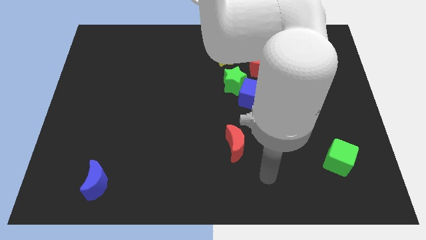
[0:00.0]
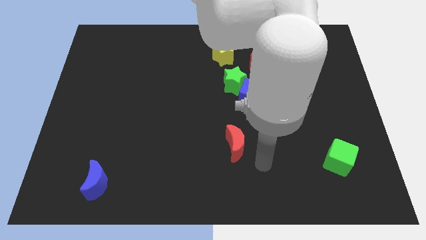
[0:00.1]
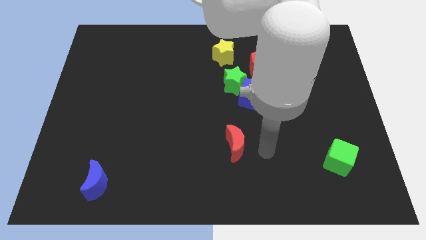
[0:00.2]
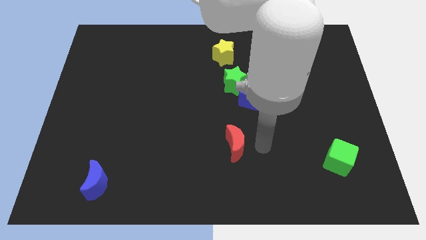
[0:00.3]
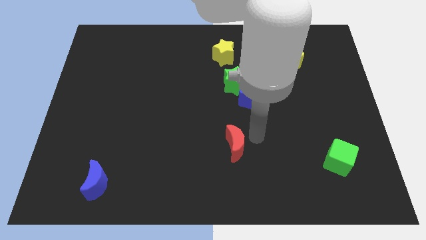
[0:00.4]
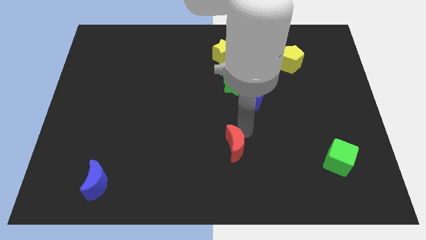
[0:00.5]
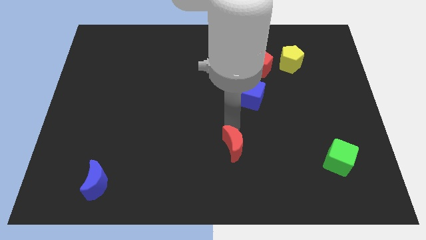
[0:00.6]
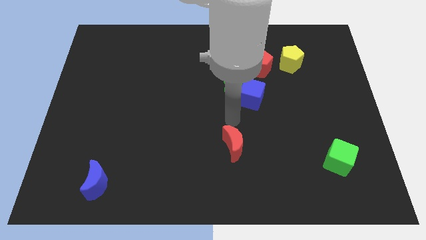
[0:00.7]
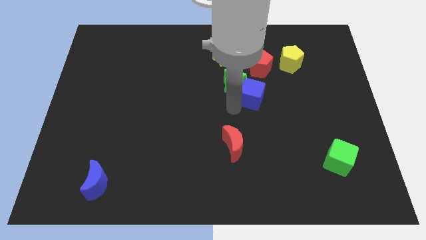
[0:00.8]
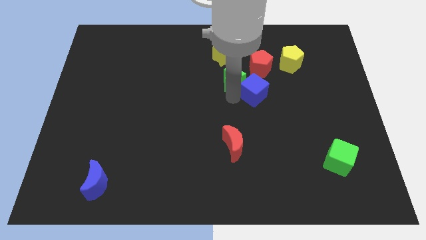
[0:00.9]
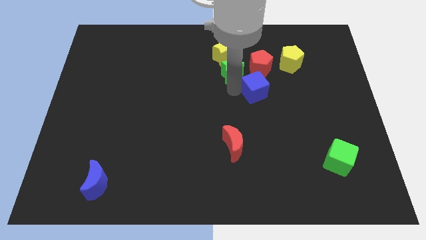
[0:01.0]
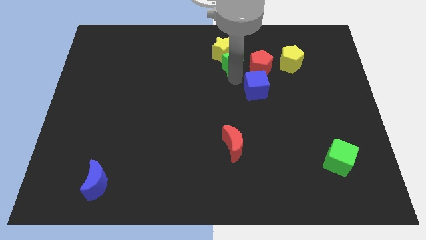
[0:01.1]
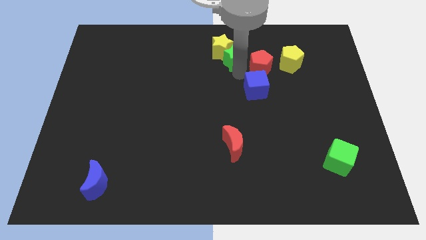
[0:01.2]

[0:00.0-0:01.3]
pull the blue cube apart from the green star

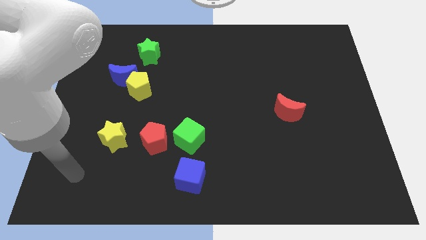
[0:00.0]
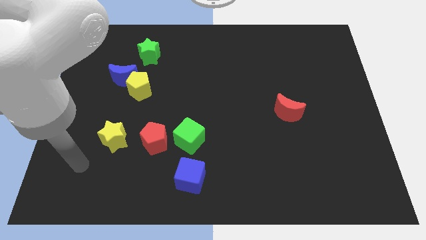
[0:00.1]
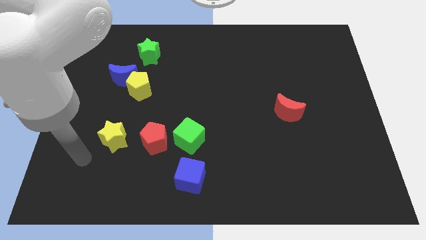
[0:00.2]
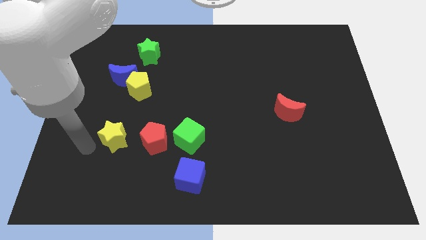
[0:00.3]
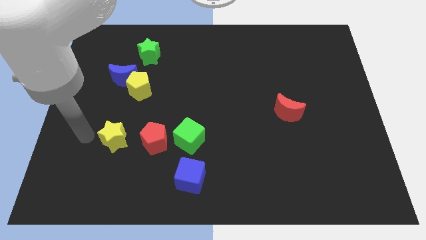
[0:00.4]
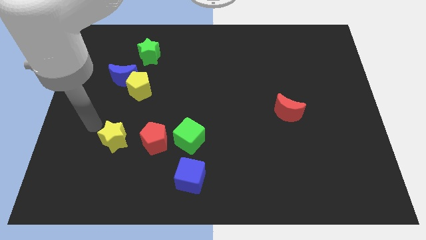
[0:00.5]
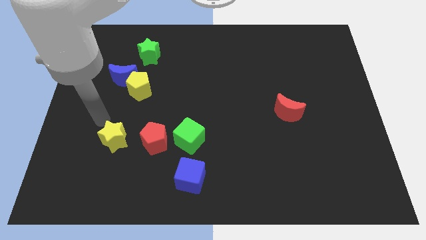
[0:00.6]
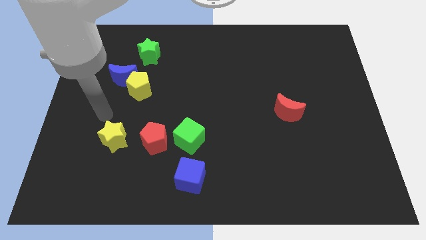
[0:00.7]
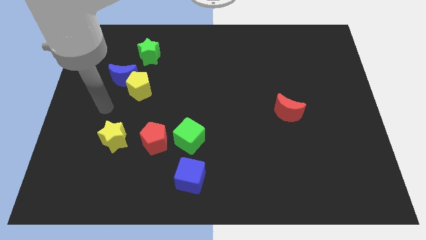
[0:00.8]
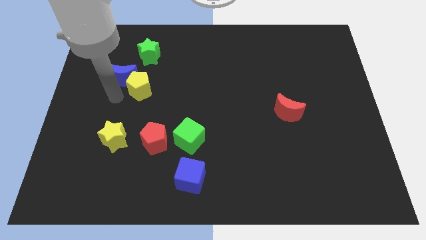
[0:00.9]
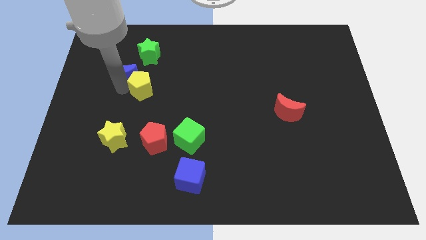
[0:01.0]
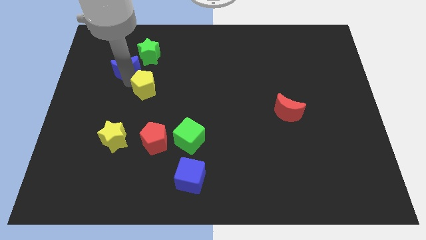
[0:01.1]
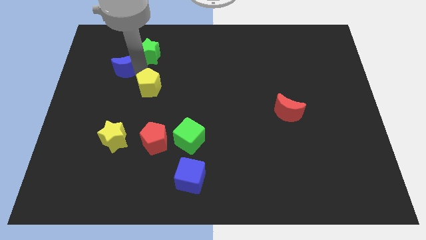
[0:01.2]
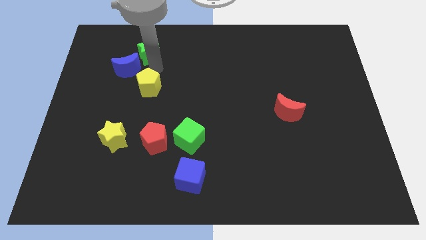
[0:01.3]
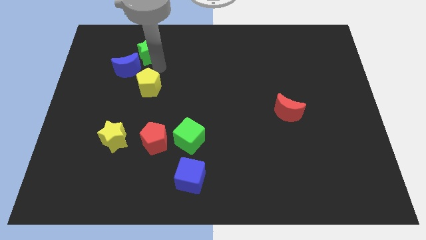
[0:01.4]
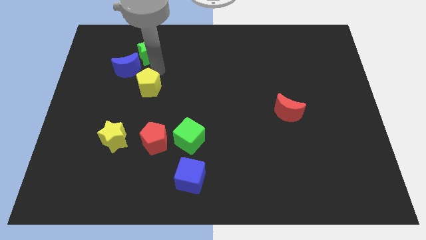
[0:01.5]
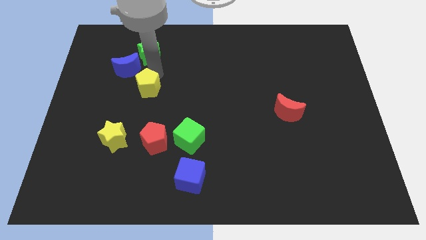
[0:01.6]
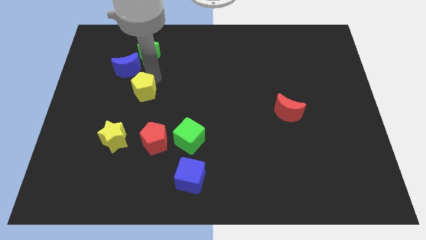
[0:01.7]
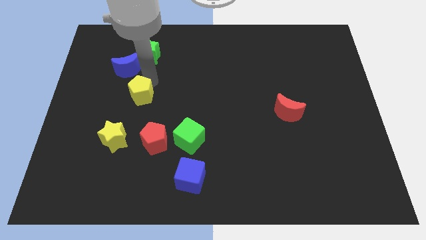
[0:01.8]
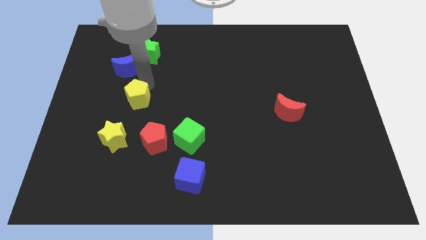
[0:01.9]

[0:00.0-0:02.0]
separate the yellow pentagon from the blue moon

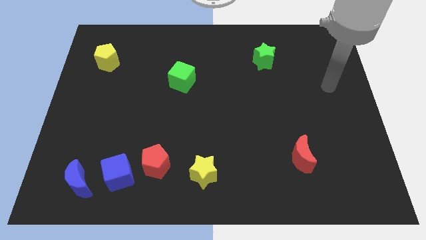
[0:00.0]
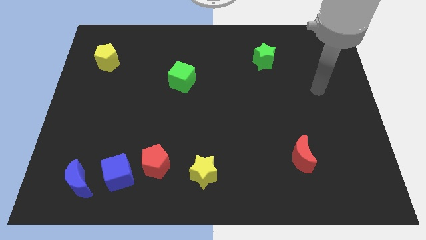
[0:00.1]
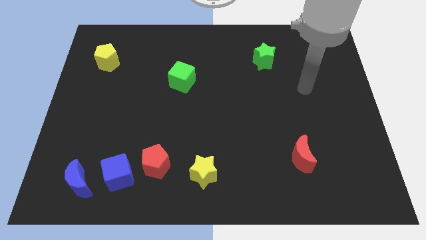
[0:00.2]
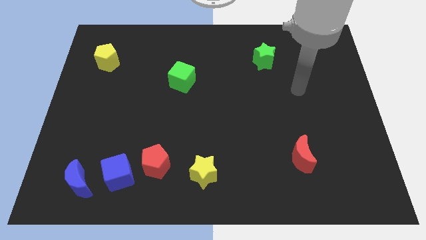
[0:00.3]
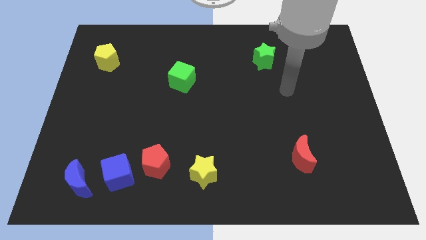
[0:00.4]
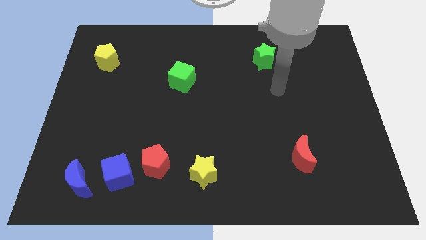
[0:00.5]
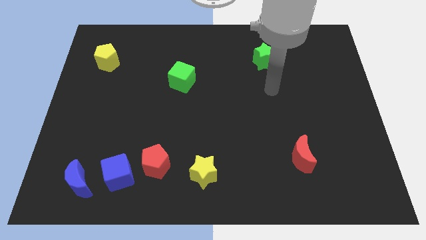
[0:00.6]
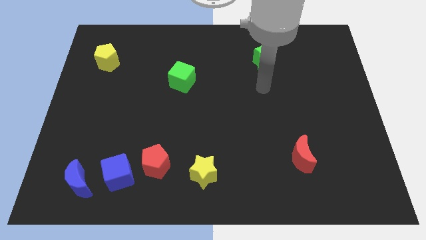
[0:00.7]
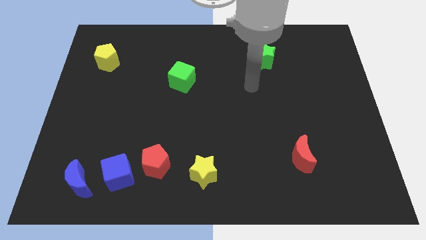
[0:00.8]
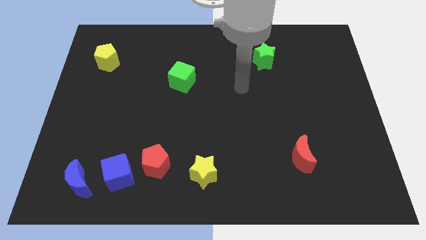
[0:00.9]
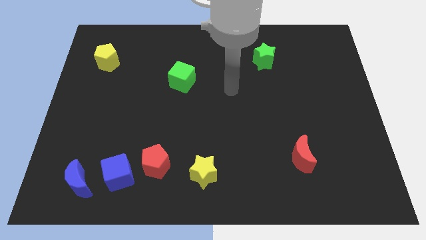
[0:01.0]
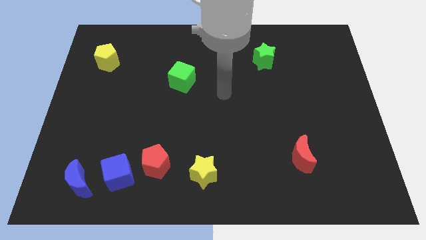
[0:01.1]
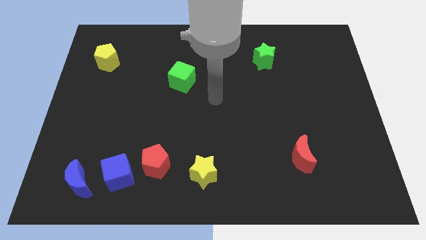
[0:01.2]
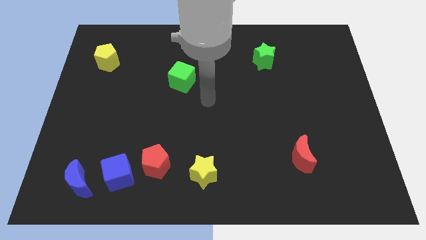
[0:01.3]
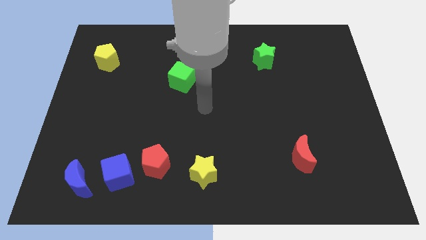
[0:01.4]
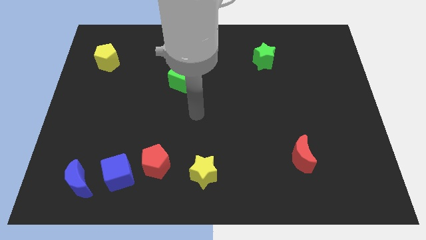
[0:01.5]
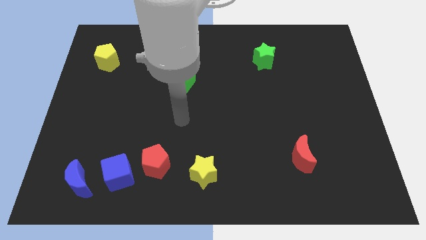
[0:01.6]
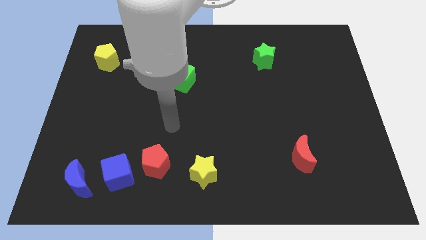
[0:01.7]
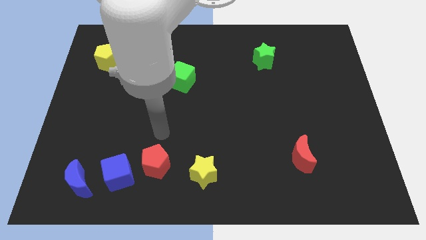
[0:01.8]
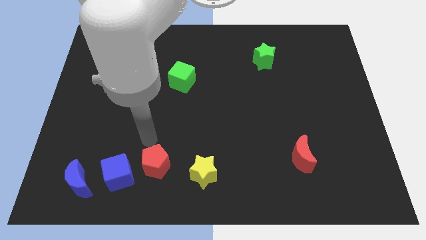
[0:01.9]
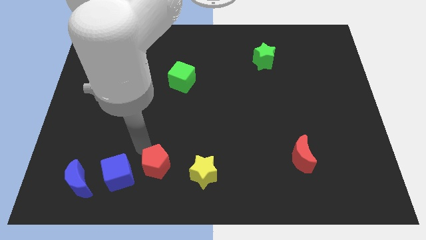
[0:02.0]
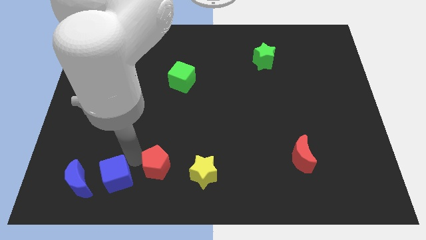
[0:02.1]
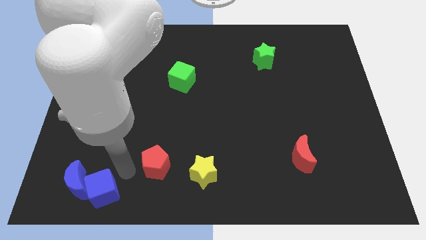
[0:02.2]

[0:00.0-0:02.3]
move the red pentagon away from the blue cube

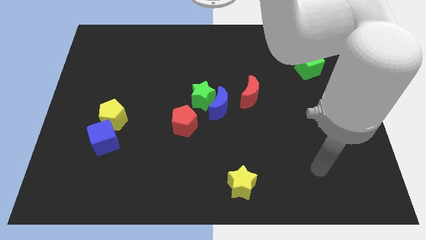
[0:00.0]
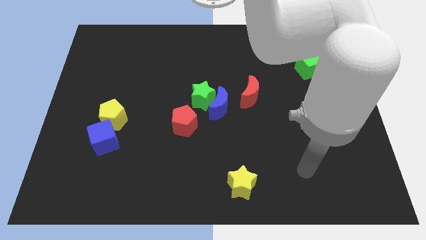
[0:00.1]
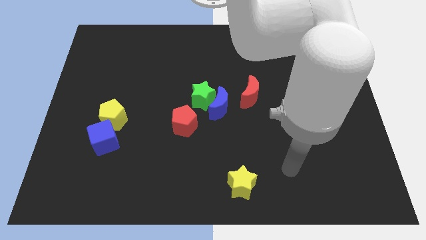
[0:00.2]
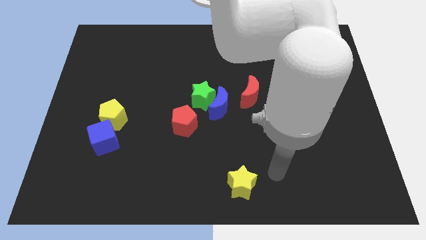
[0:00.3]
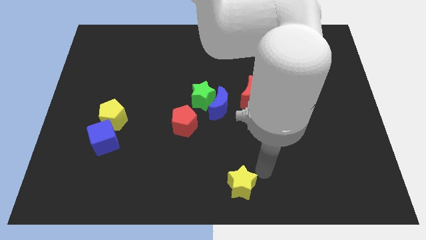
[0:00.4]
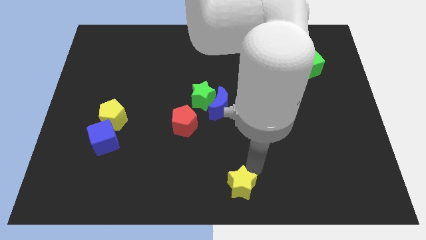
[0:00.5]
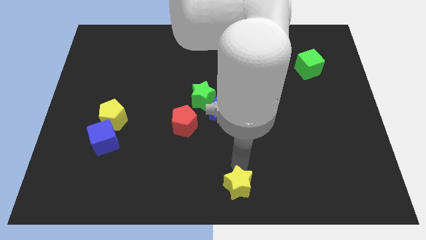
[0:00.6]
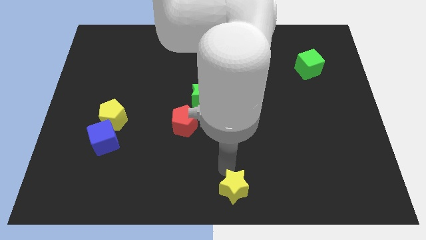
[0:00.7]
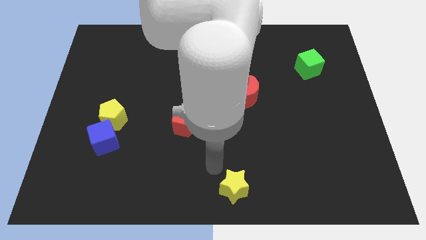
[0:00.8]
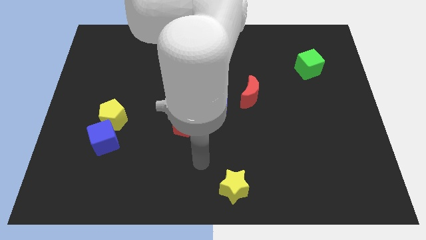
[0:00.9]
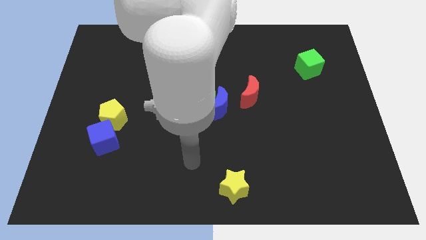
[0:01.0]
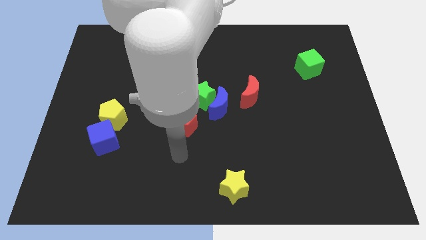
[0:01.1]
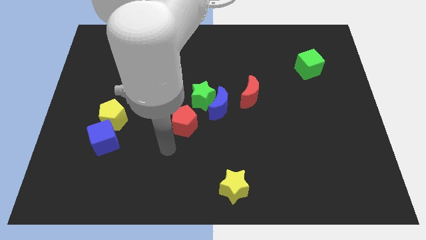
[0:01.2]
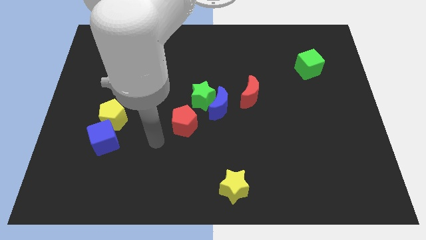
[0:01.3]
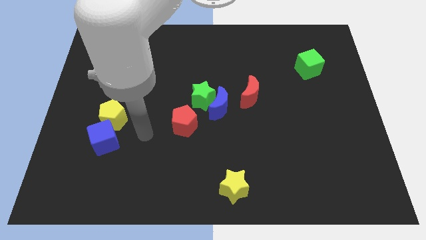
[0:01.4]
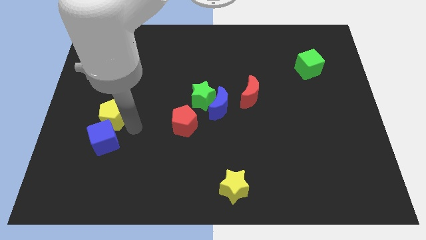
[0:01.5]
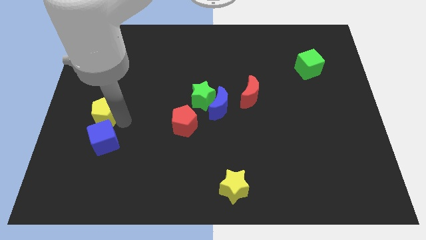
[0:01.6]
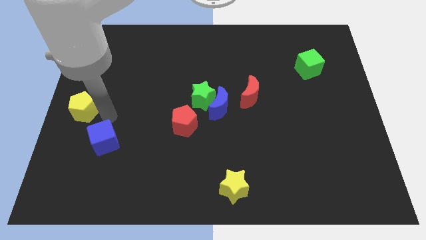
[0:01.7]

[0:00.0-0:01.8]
separate the blue cube from the yellow pentagon

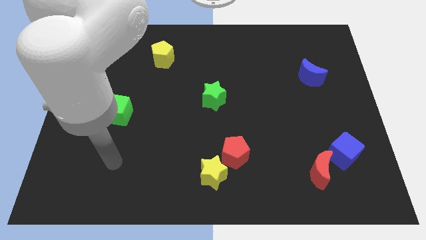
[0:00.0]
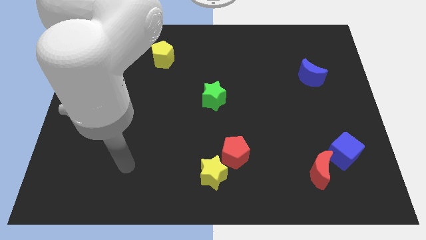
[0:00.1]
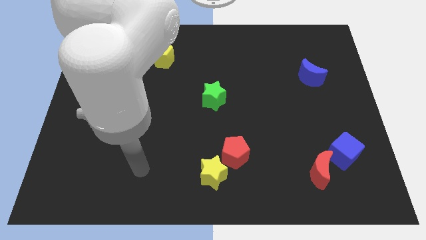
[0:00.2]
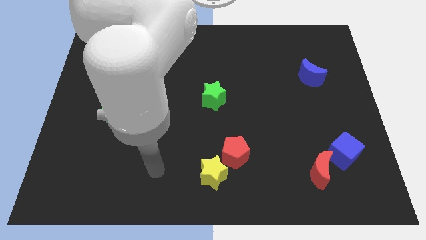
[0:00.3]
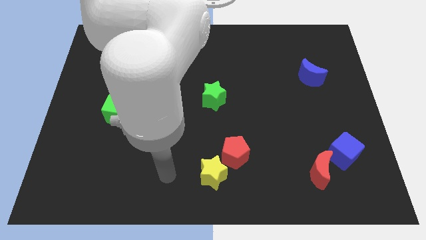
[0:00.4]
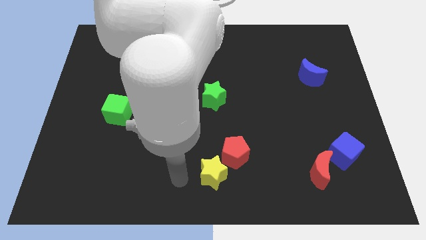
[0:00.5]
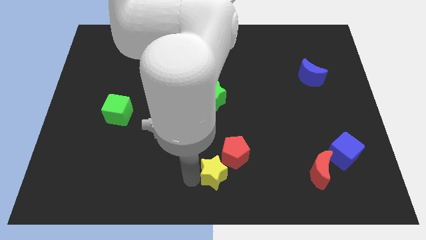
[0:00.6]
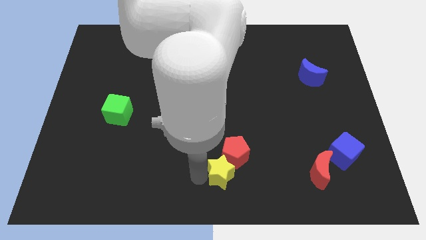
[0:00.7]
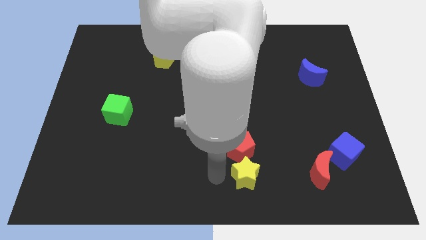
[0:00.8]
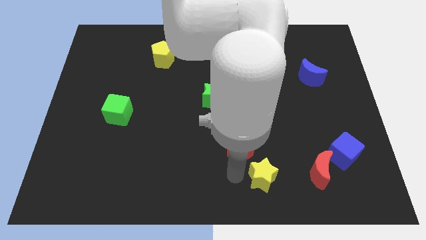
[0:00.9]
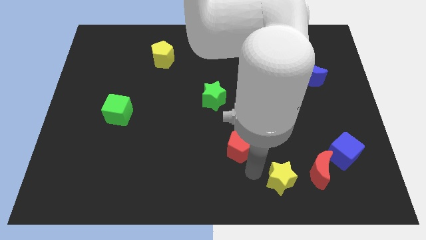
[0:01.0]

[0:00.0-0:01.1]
pull the red pentagon apart from the yellow star

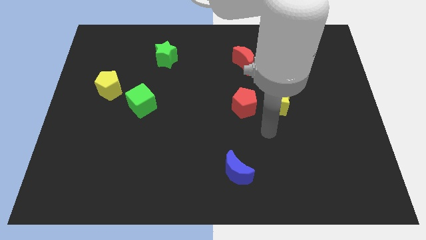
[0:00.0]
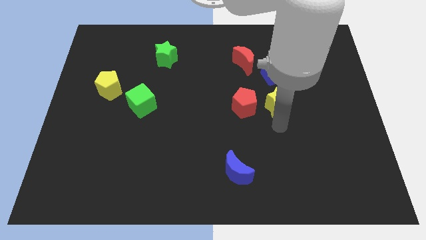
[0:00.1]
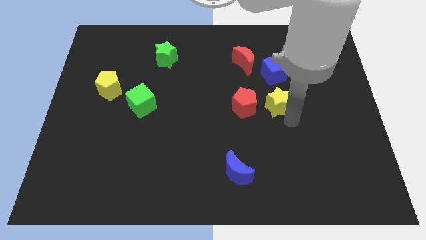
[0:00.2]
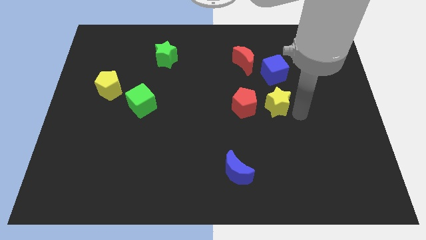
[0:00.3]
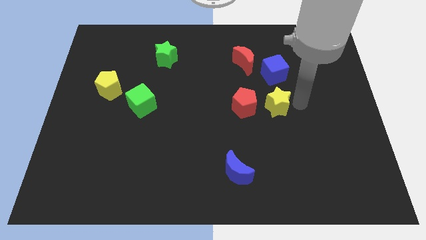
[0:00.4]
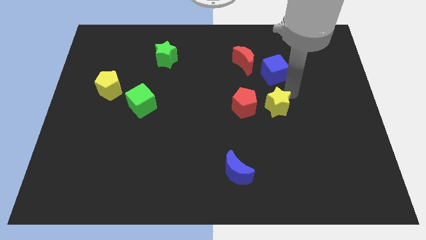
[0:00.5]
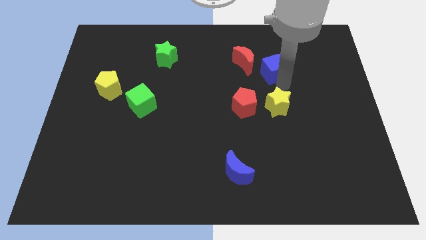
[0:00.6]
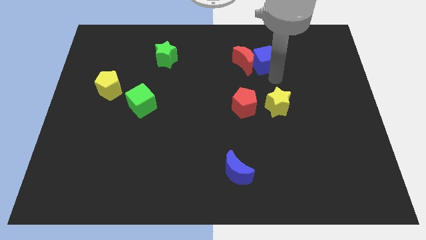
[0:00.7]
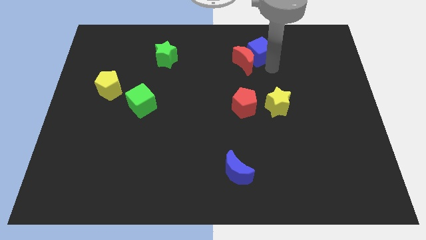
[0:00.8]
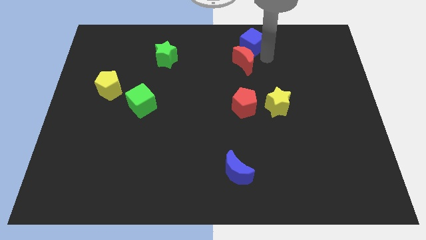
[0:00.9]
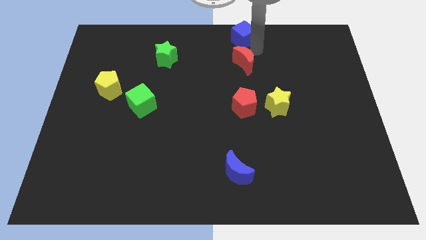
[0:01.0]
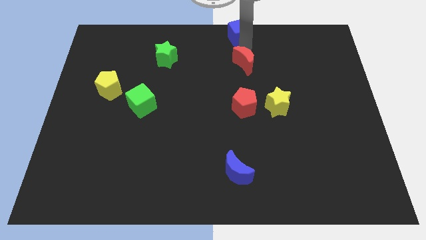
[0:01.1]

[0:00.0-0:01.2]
pull the red moon apart from the blue cube
